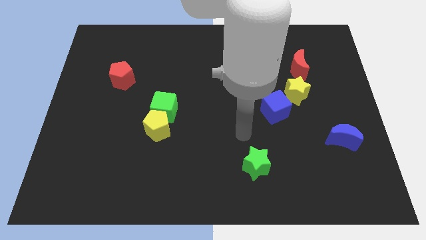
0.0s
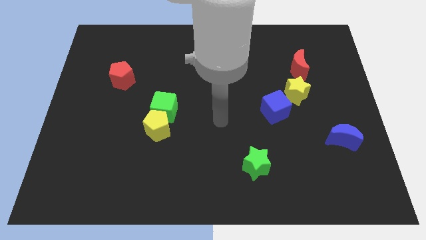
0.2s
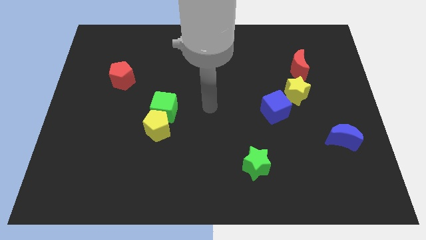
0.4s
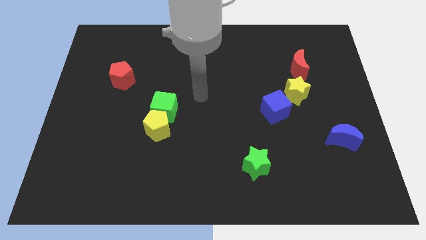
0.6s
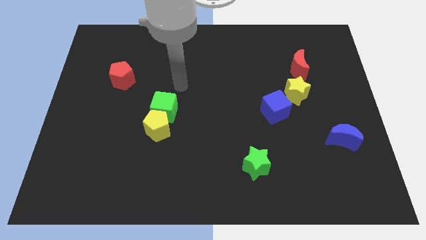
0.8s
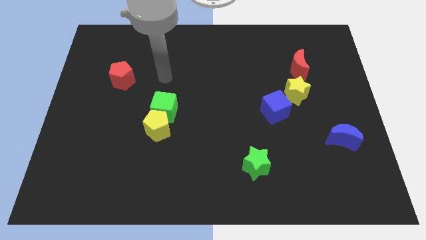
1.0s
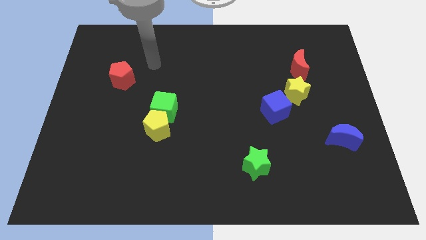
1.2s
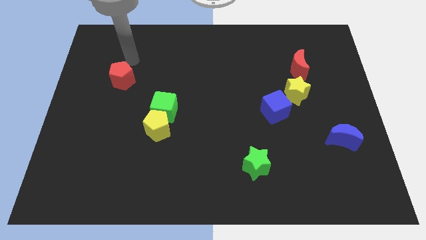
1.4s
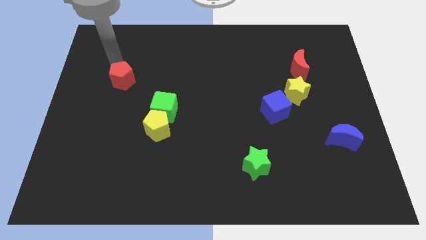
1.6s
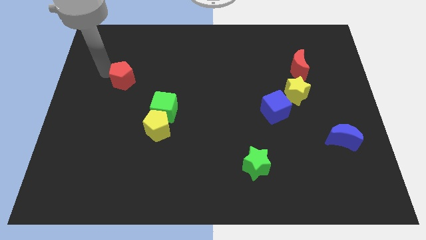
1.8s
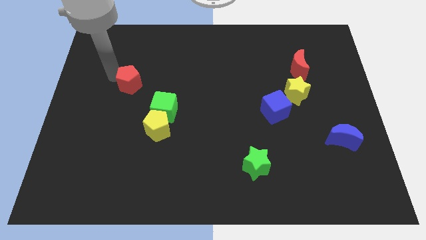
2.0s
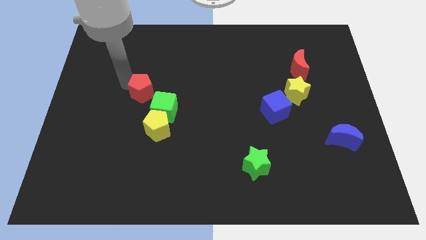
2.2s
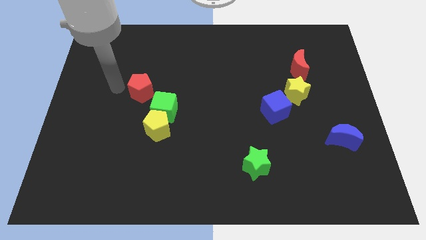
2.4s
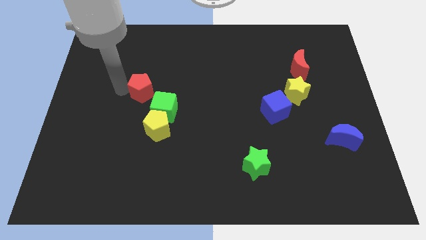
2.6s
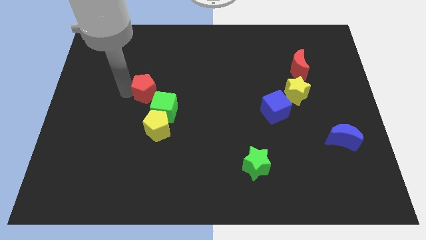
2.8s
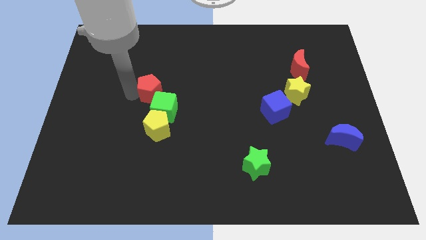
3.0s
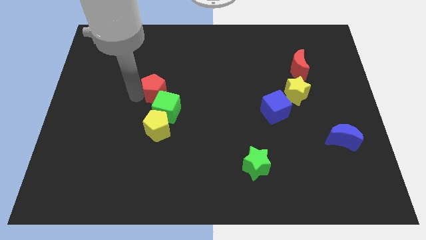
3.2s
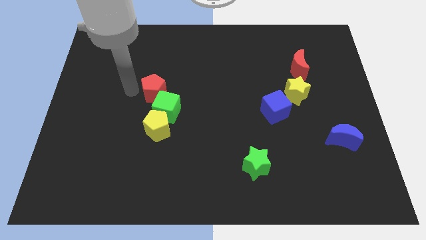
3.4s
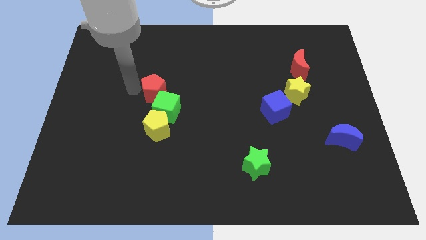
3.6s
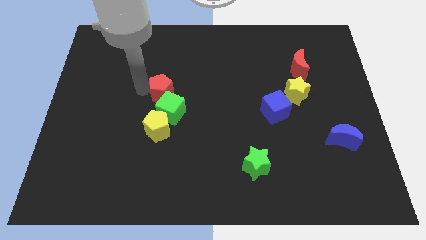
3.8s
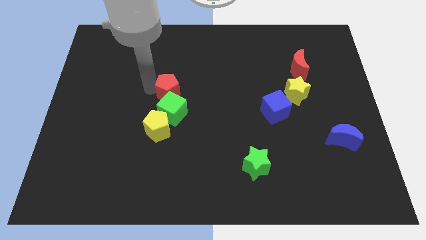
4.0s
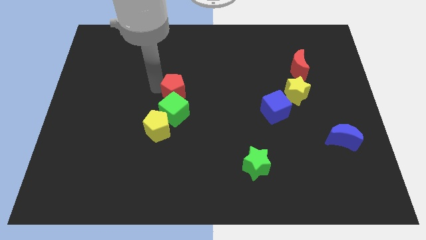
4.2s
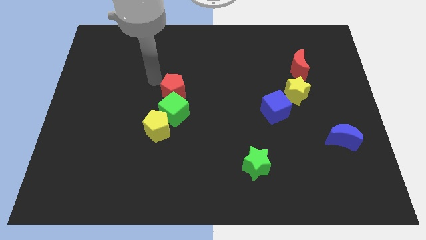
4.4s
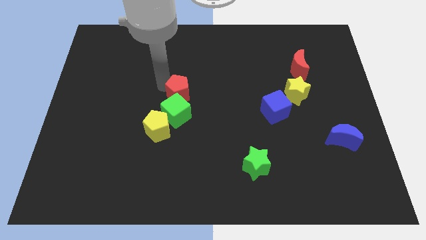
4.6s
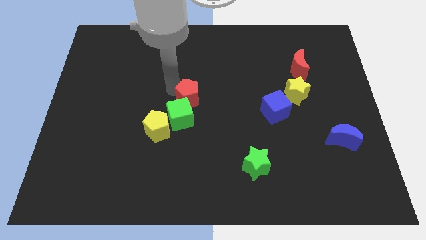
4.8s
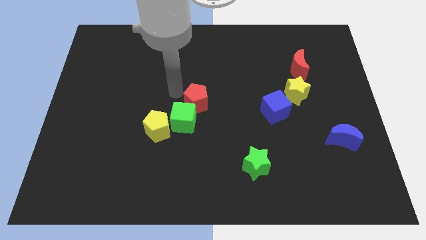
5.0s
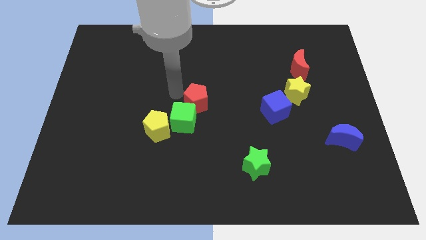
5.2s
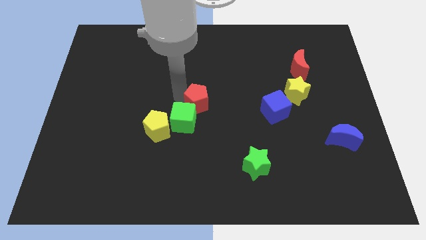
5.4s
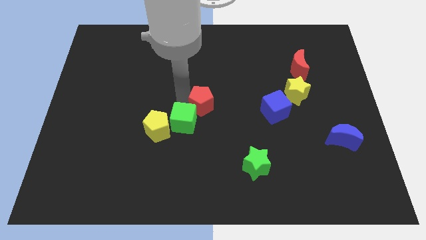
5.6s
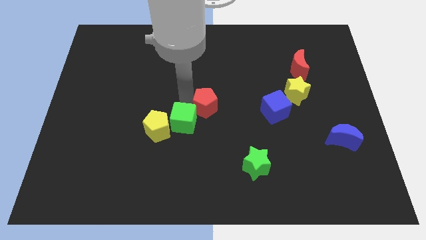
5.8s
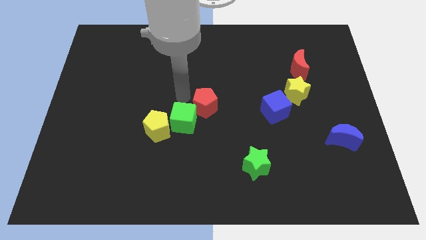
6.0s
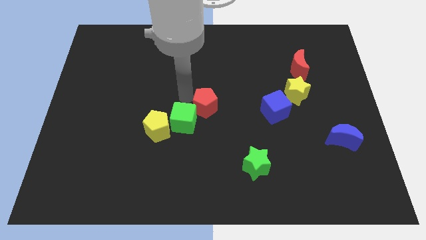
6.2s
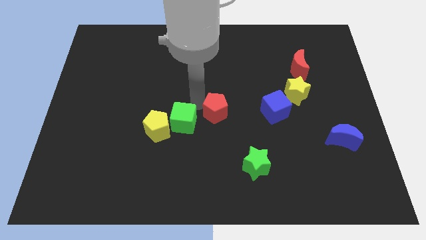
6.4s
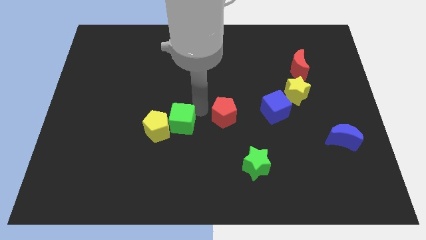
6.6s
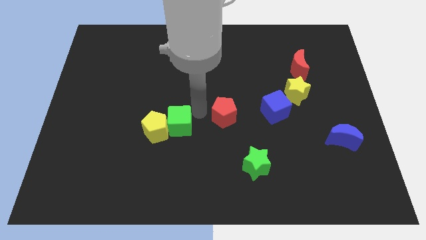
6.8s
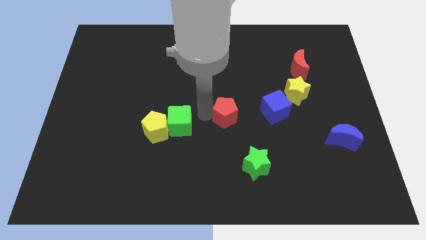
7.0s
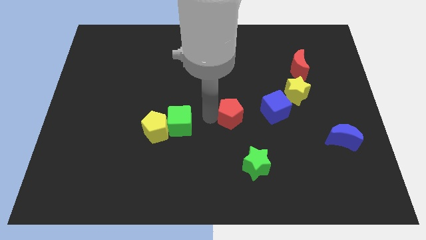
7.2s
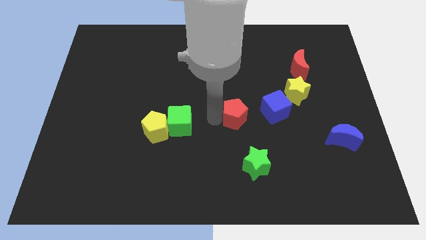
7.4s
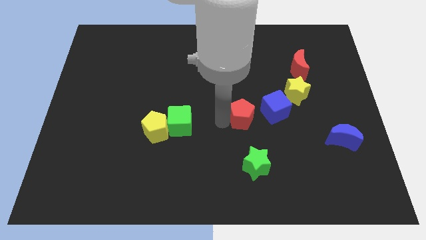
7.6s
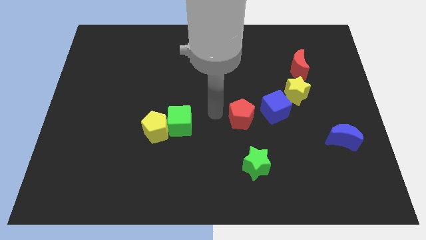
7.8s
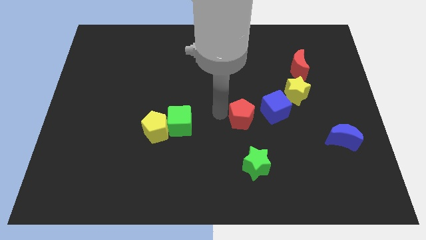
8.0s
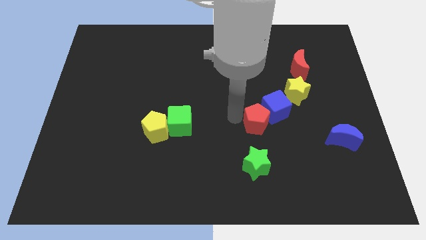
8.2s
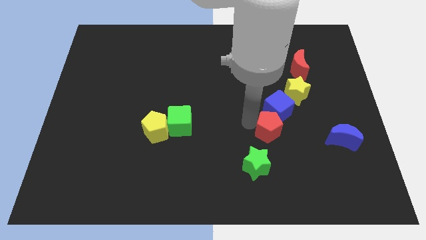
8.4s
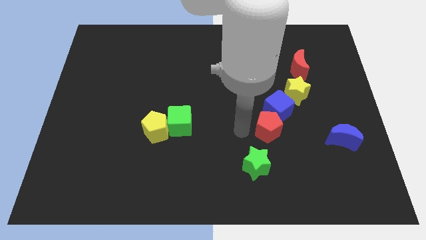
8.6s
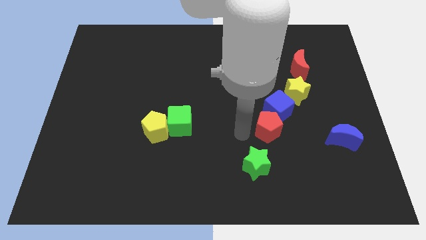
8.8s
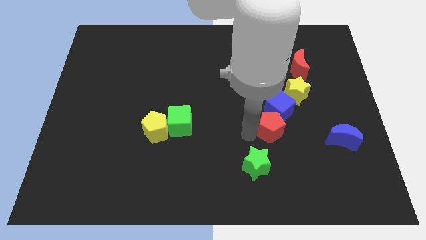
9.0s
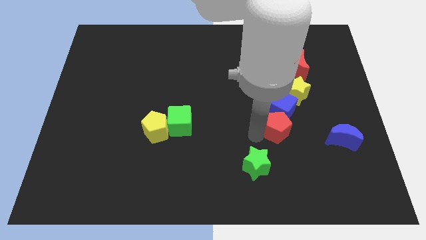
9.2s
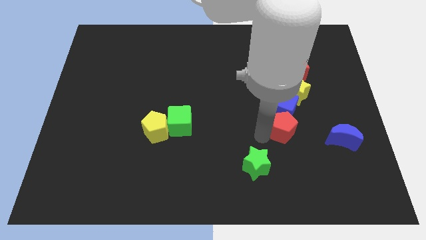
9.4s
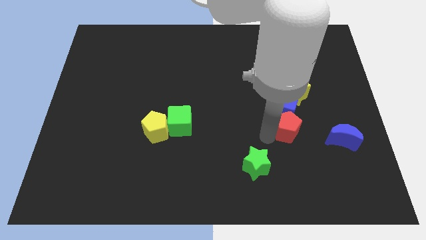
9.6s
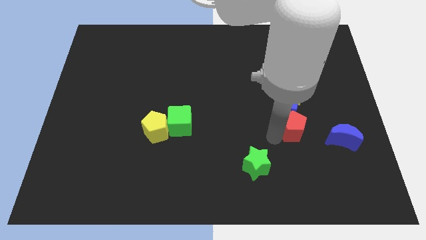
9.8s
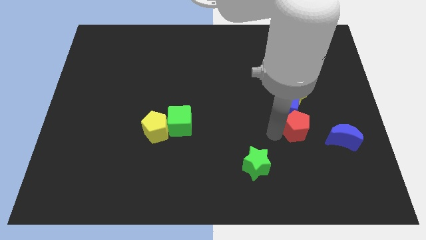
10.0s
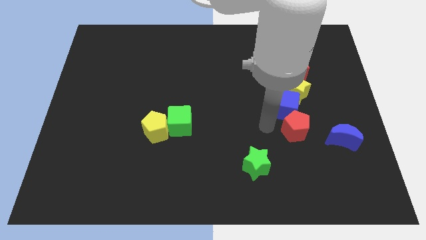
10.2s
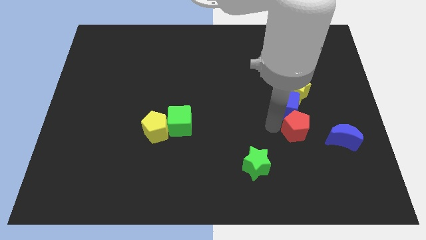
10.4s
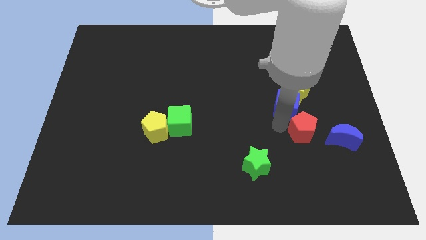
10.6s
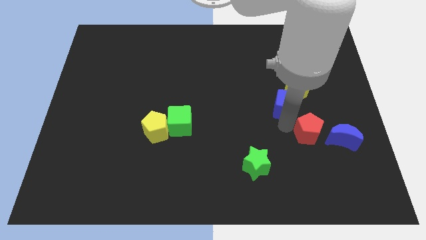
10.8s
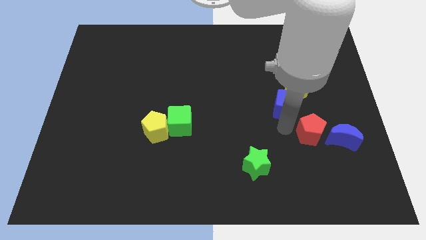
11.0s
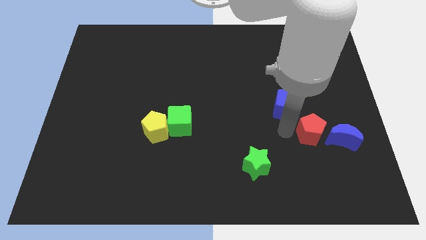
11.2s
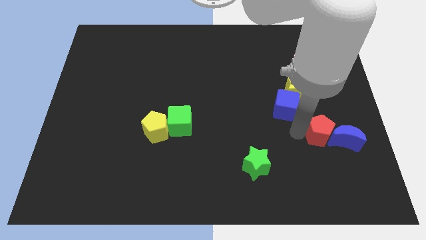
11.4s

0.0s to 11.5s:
push the red pentagon towards the blue moon
